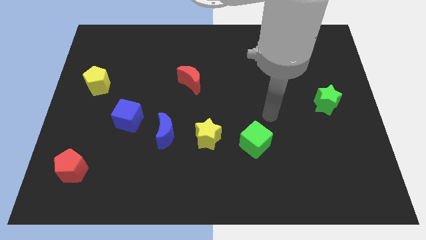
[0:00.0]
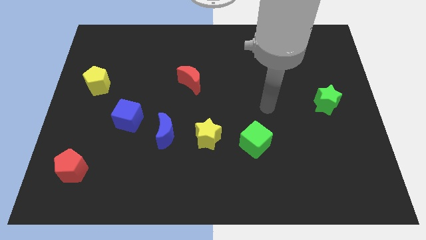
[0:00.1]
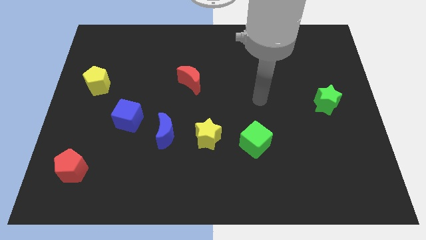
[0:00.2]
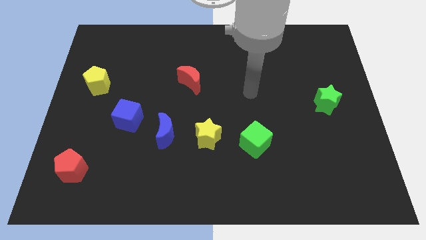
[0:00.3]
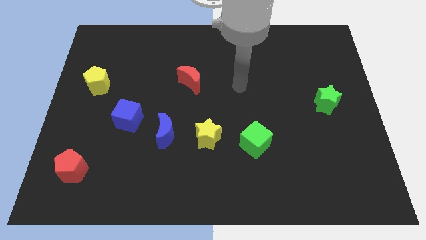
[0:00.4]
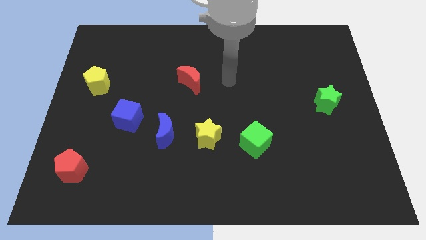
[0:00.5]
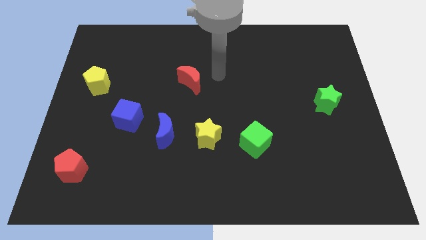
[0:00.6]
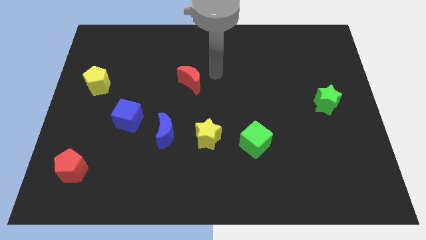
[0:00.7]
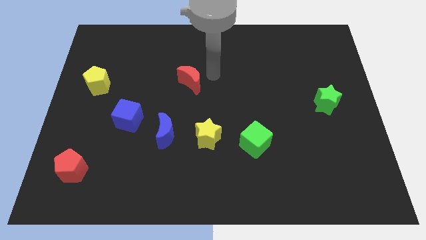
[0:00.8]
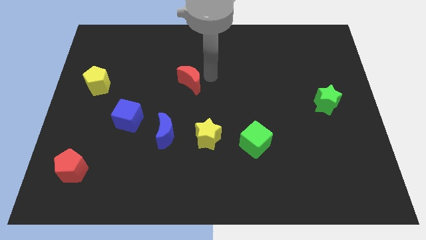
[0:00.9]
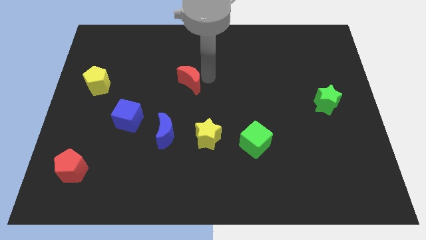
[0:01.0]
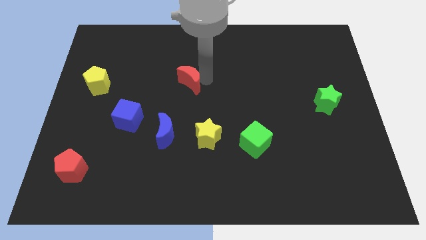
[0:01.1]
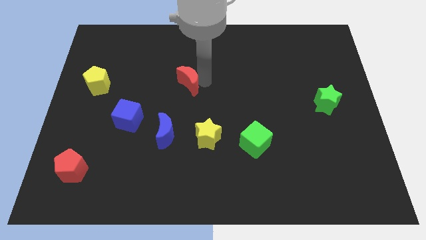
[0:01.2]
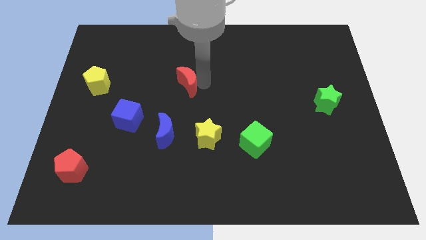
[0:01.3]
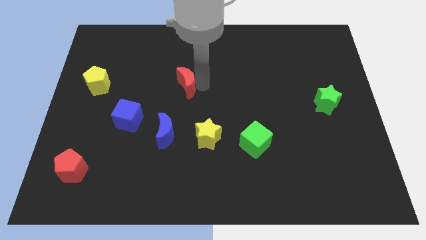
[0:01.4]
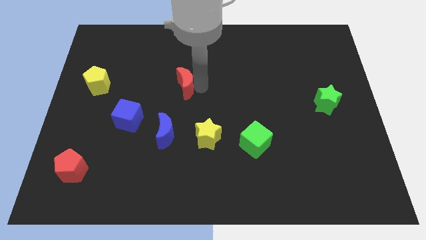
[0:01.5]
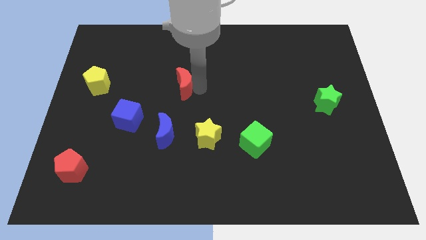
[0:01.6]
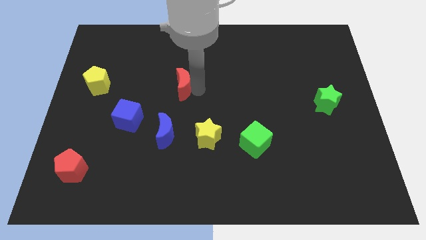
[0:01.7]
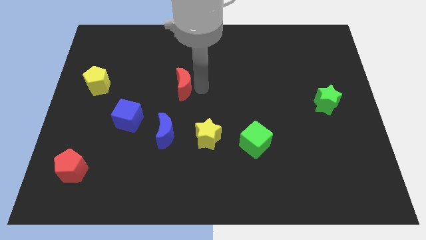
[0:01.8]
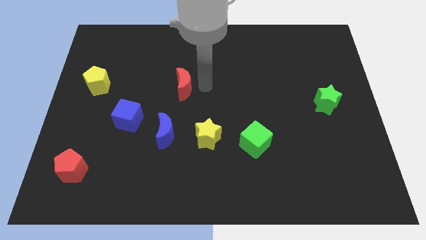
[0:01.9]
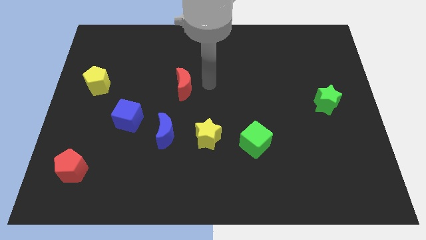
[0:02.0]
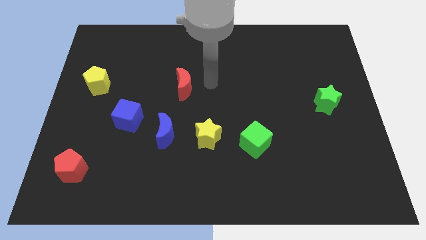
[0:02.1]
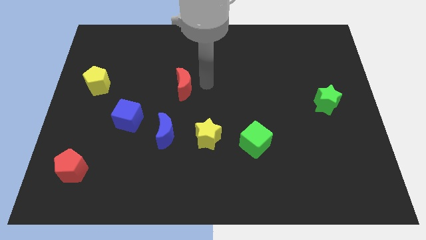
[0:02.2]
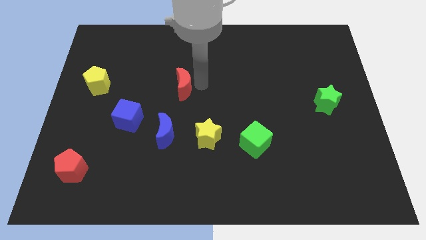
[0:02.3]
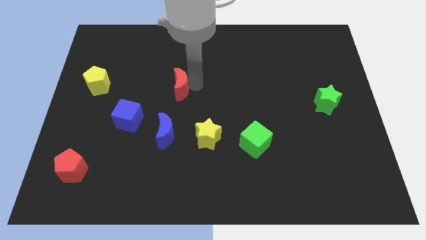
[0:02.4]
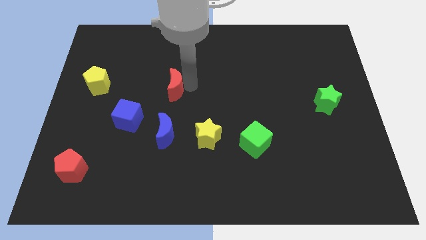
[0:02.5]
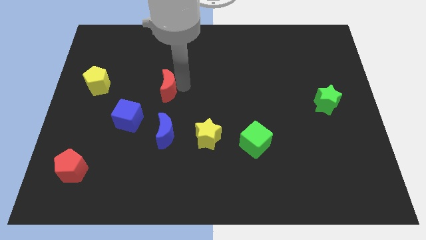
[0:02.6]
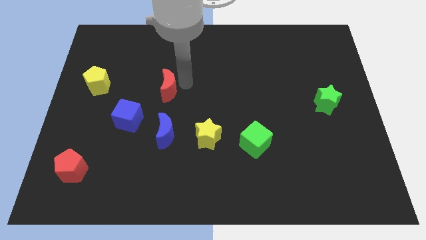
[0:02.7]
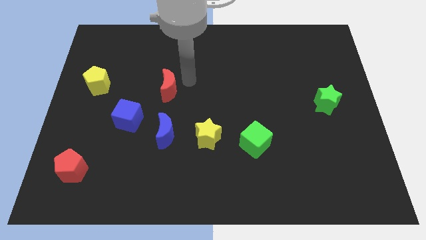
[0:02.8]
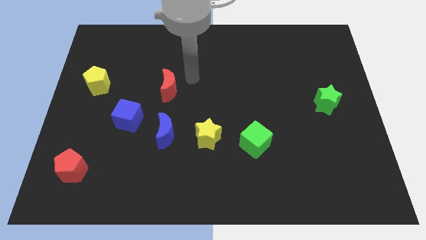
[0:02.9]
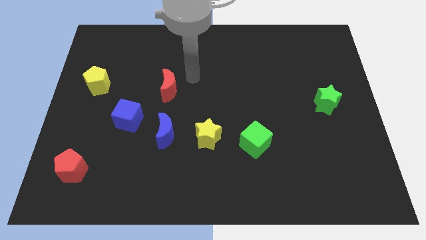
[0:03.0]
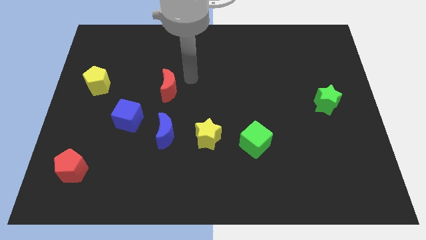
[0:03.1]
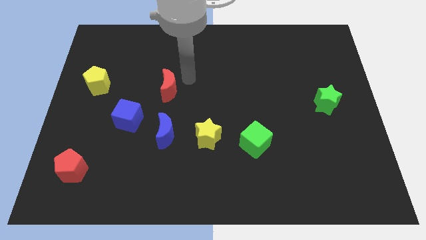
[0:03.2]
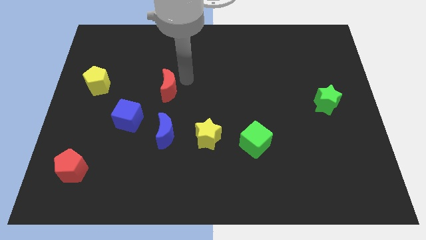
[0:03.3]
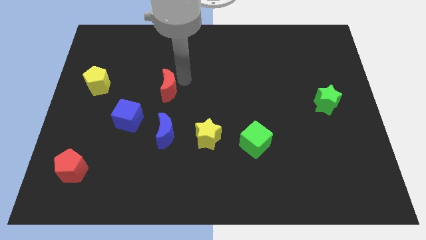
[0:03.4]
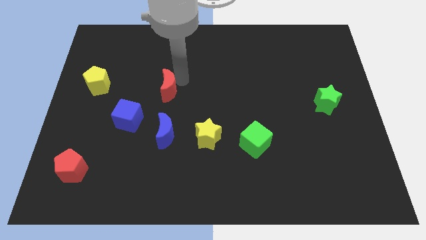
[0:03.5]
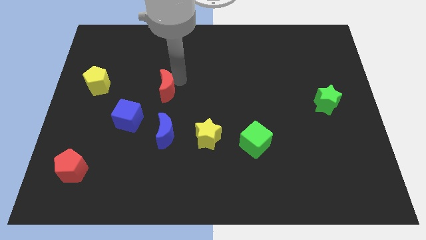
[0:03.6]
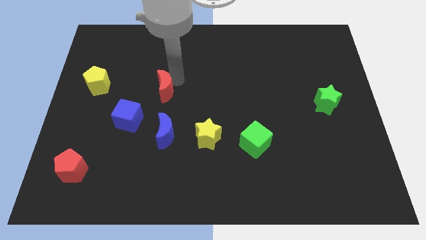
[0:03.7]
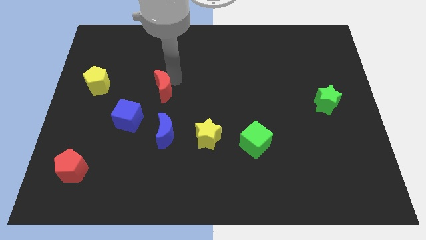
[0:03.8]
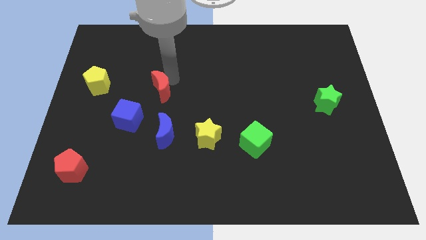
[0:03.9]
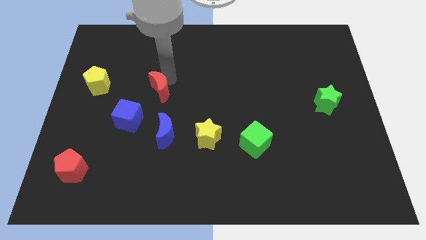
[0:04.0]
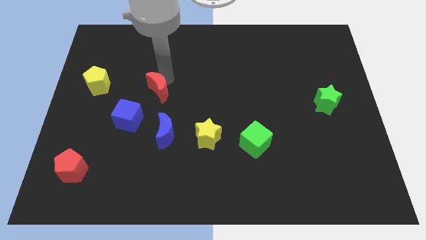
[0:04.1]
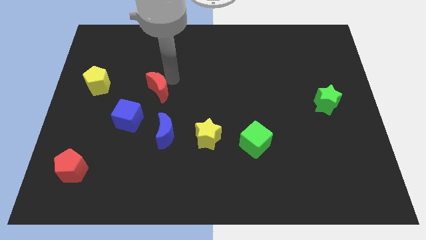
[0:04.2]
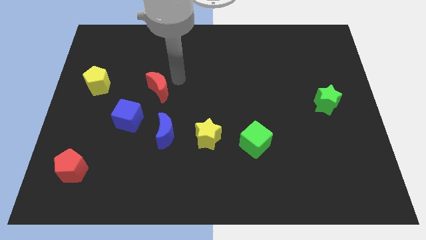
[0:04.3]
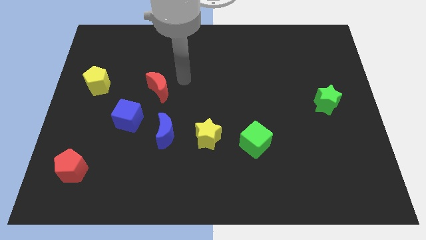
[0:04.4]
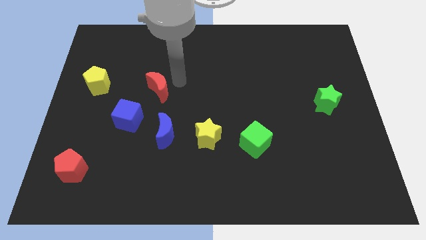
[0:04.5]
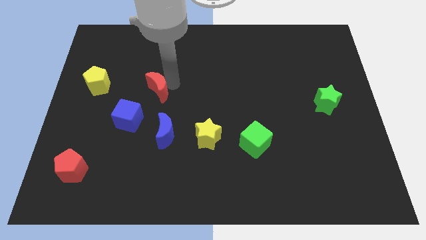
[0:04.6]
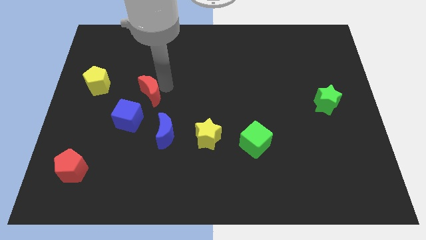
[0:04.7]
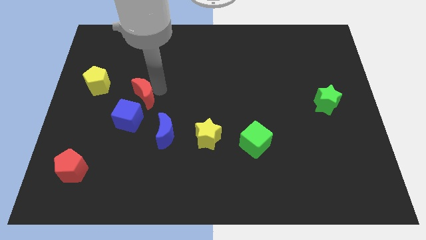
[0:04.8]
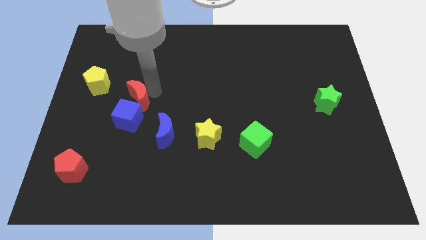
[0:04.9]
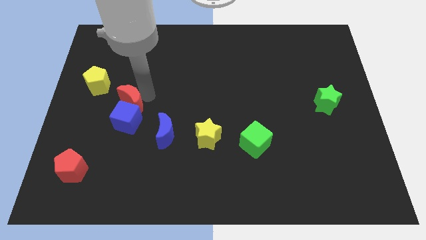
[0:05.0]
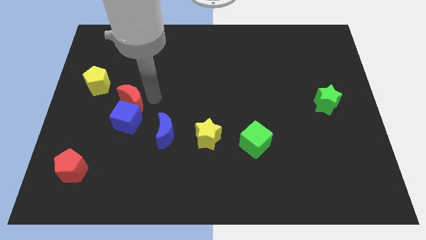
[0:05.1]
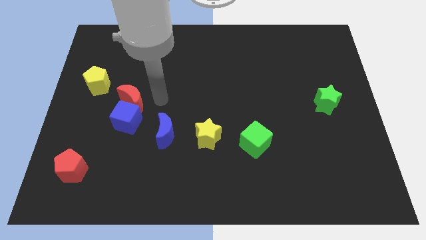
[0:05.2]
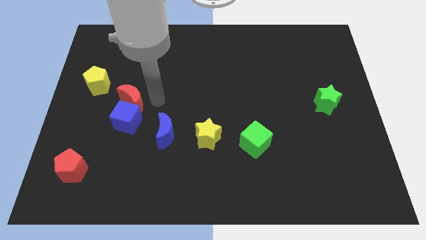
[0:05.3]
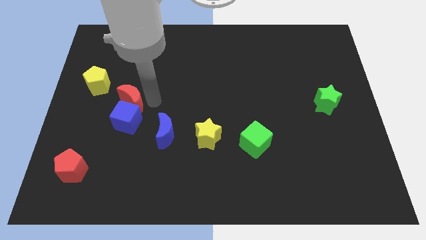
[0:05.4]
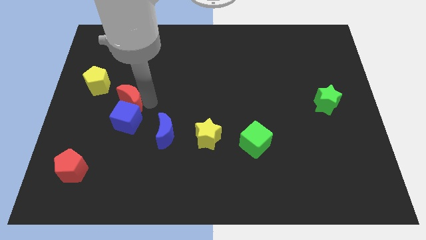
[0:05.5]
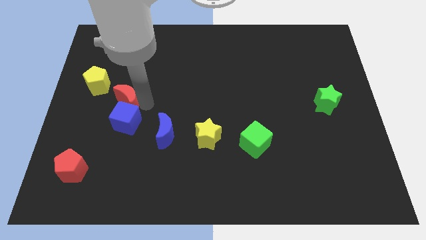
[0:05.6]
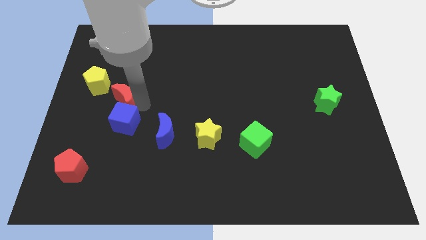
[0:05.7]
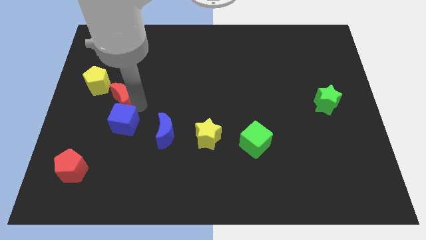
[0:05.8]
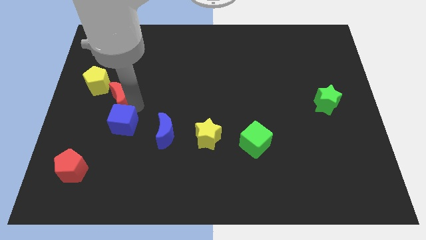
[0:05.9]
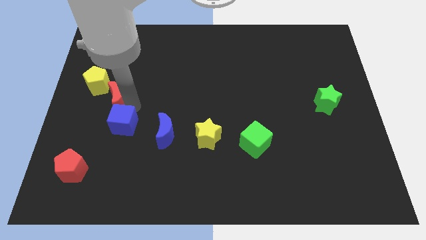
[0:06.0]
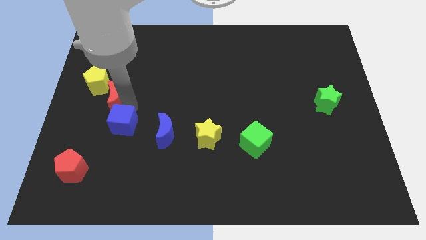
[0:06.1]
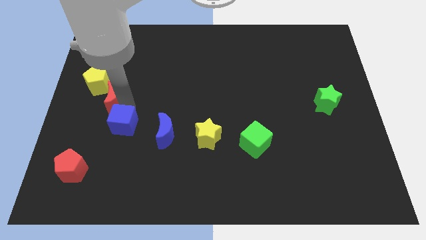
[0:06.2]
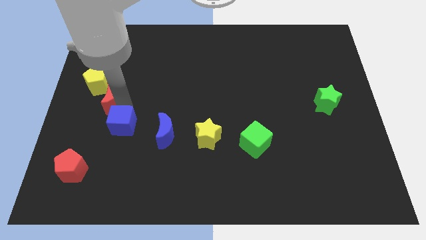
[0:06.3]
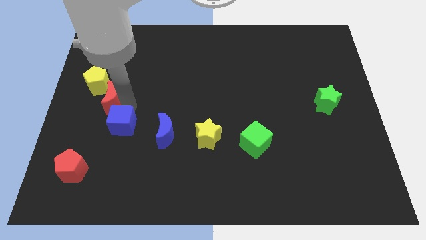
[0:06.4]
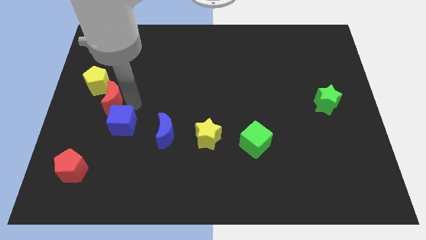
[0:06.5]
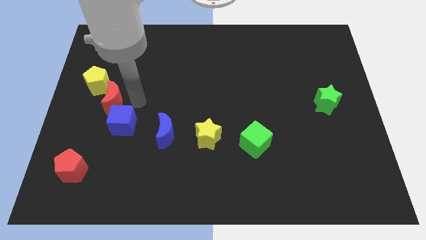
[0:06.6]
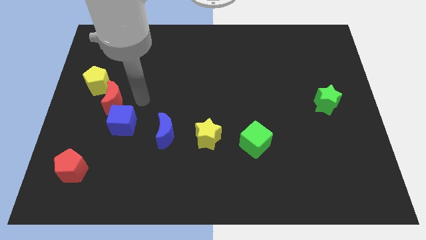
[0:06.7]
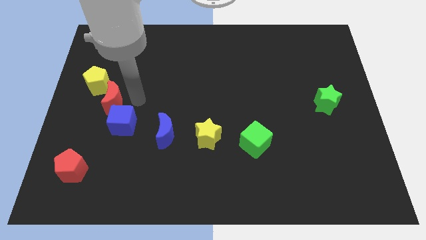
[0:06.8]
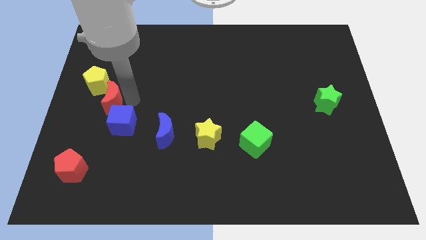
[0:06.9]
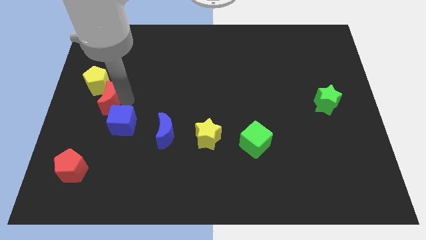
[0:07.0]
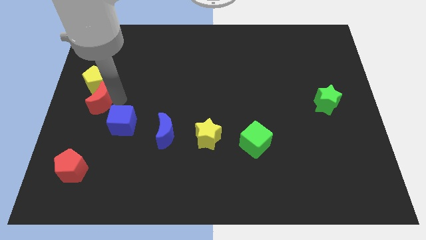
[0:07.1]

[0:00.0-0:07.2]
move the red moon to the left side of the board
